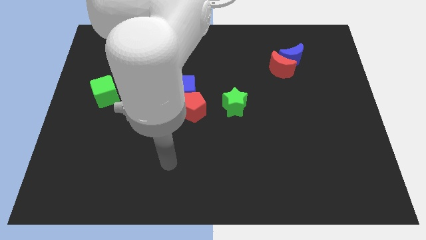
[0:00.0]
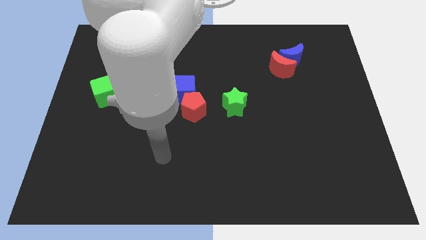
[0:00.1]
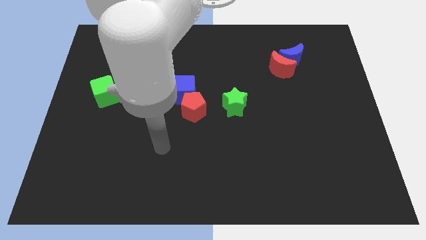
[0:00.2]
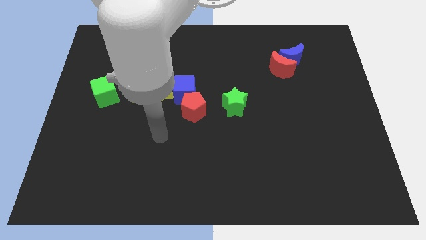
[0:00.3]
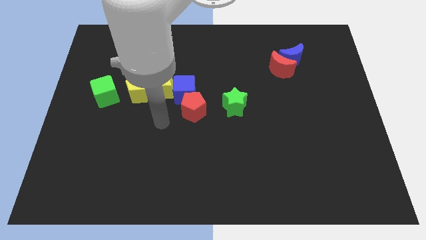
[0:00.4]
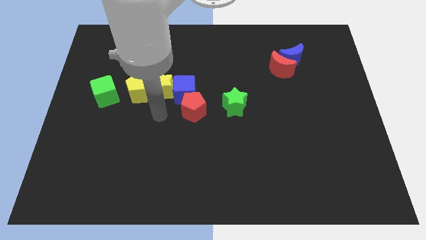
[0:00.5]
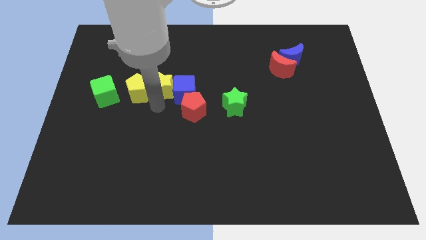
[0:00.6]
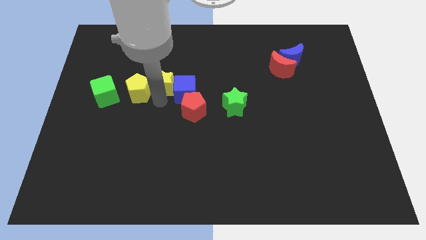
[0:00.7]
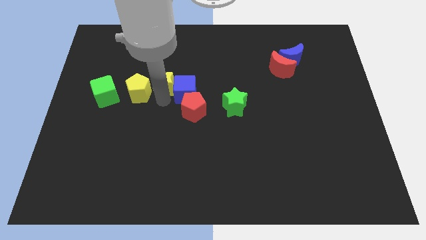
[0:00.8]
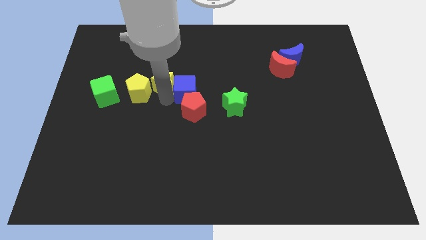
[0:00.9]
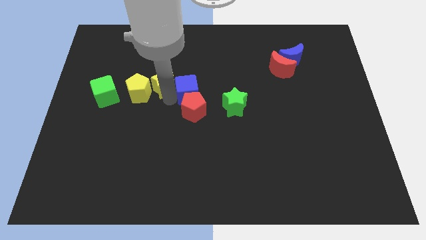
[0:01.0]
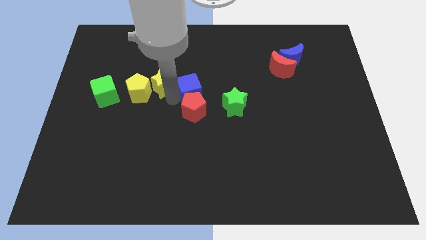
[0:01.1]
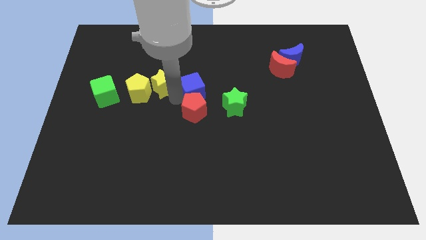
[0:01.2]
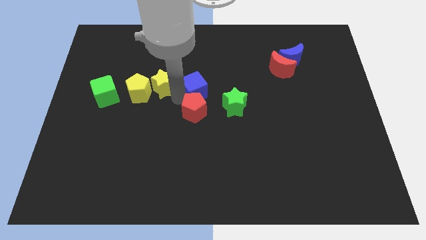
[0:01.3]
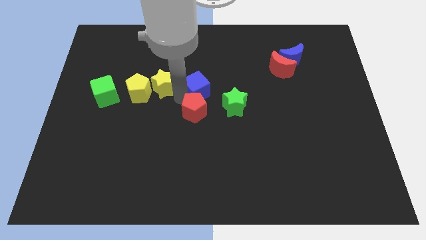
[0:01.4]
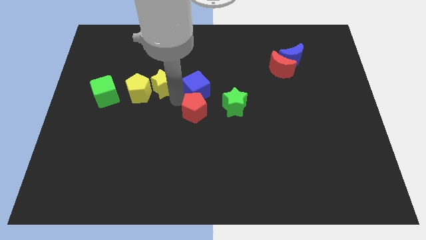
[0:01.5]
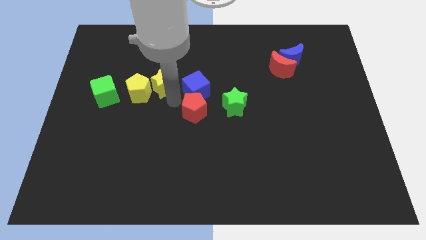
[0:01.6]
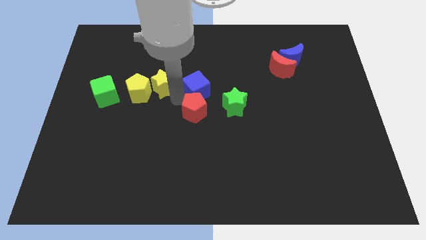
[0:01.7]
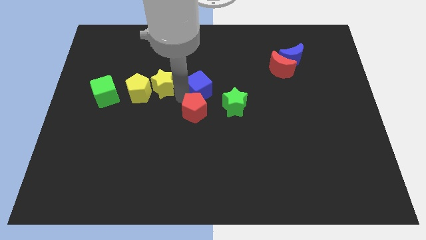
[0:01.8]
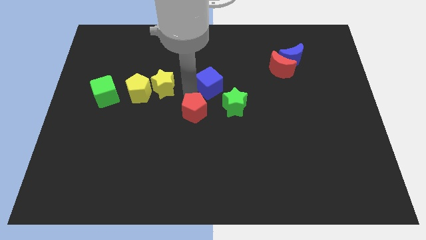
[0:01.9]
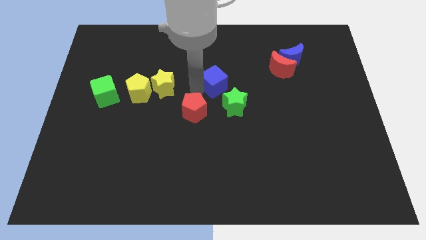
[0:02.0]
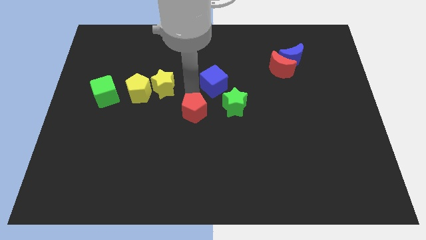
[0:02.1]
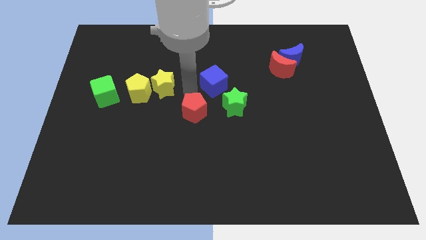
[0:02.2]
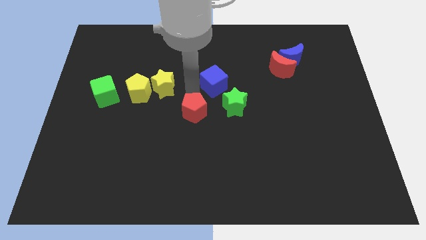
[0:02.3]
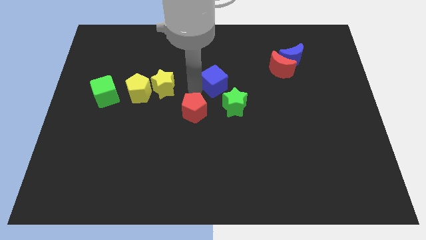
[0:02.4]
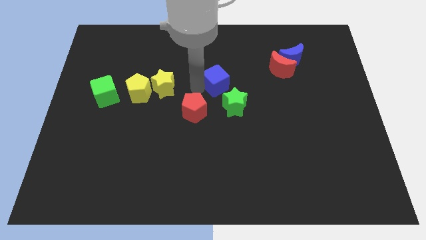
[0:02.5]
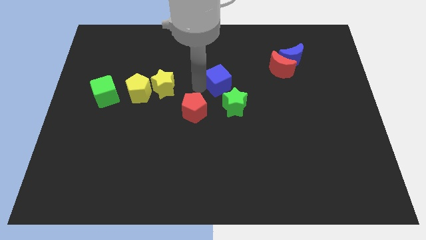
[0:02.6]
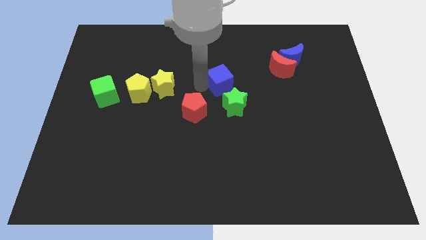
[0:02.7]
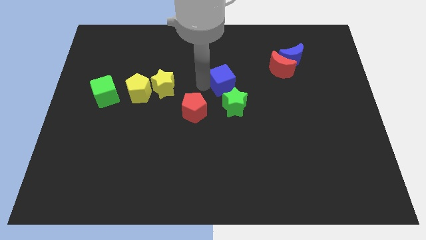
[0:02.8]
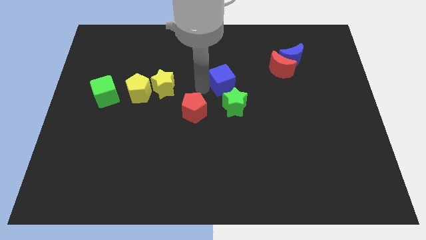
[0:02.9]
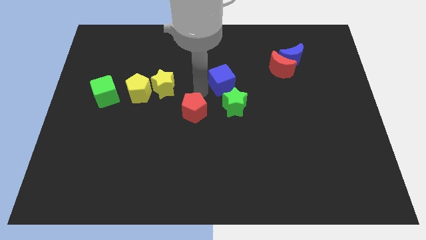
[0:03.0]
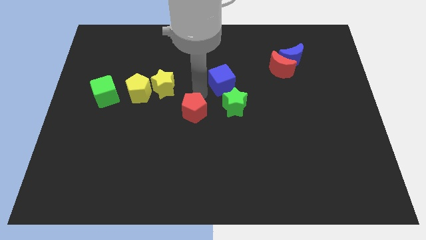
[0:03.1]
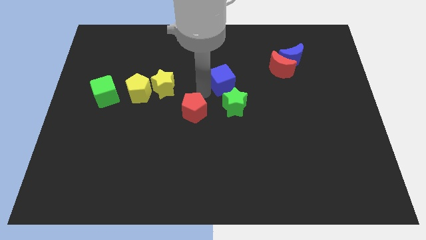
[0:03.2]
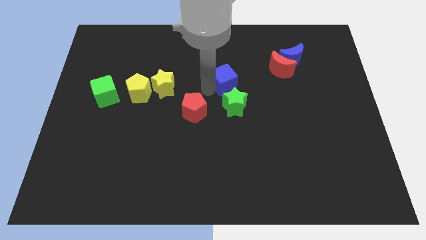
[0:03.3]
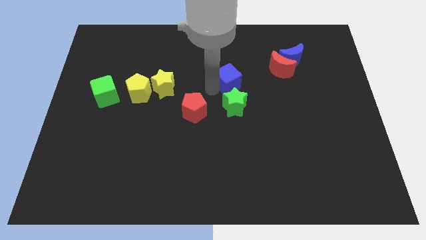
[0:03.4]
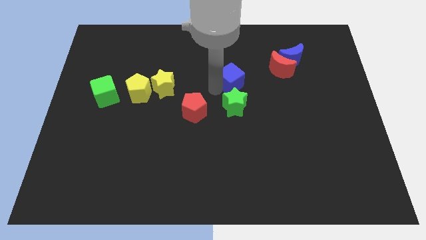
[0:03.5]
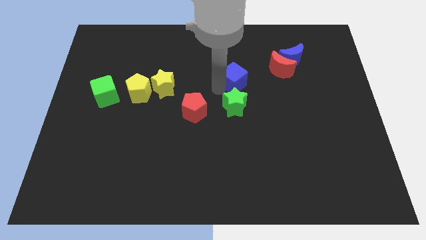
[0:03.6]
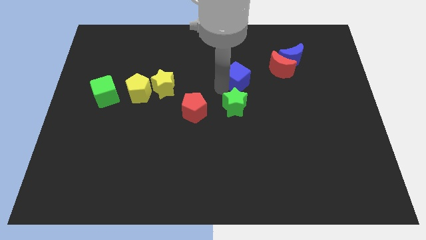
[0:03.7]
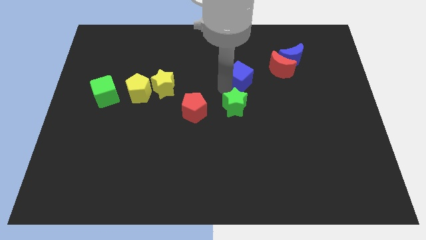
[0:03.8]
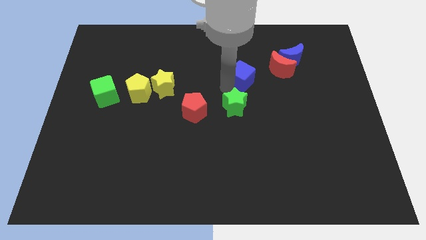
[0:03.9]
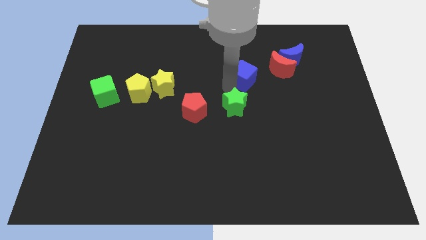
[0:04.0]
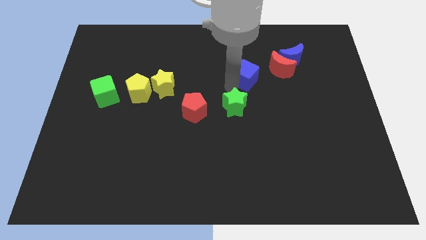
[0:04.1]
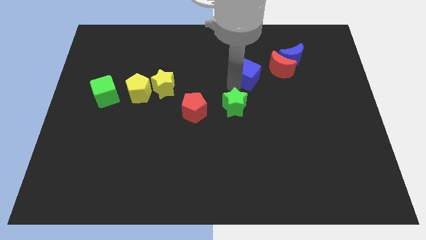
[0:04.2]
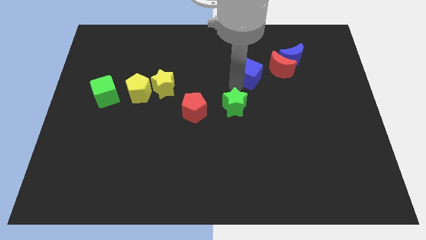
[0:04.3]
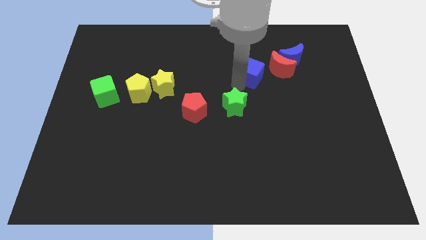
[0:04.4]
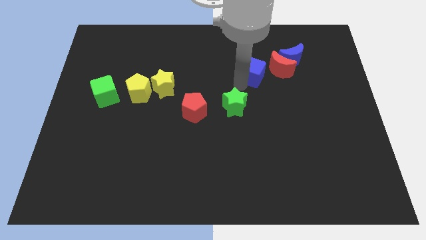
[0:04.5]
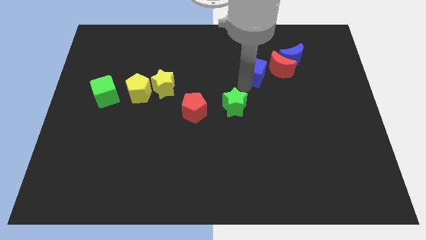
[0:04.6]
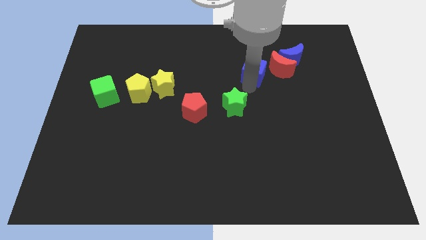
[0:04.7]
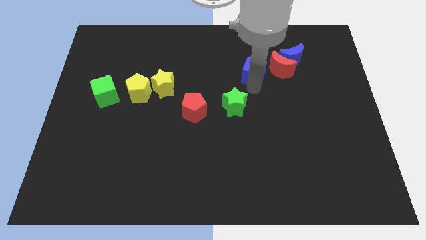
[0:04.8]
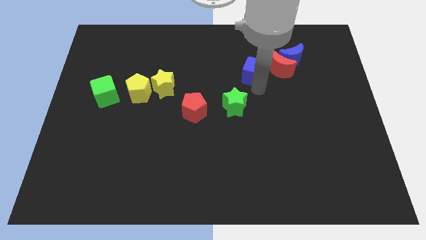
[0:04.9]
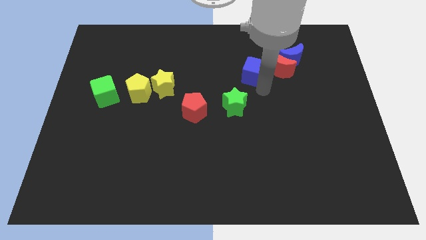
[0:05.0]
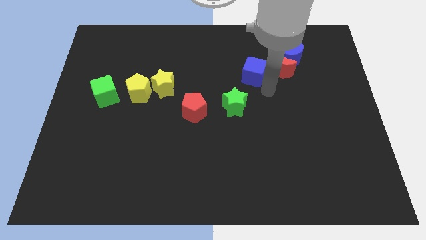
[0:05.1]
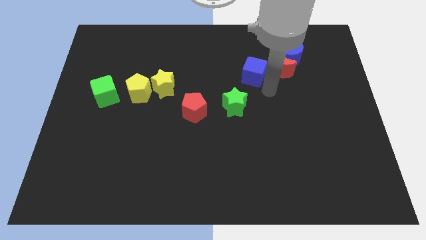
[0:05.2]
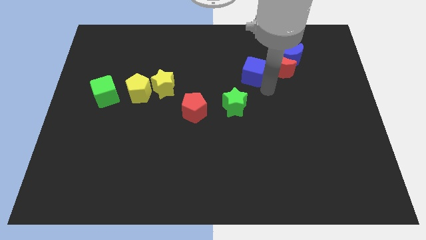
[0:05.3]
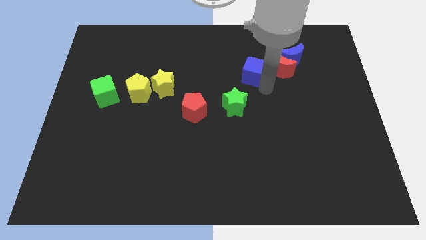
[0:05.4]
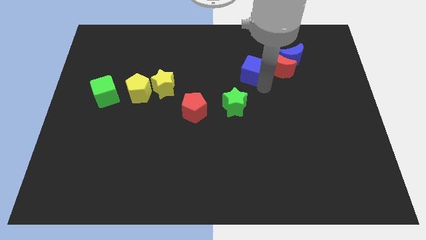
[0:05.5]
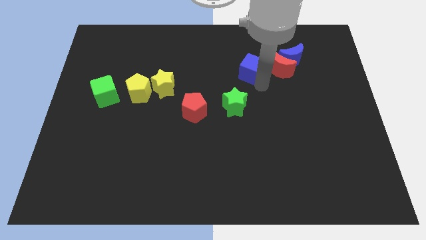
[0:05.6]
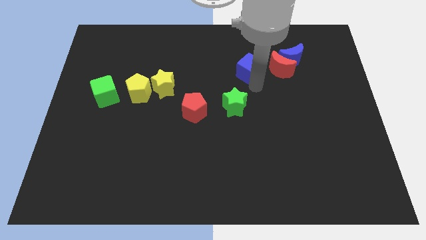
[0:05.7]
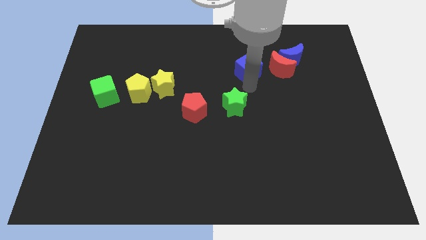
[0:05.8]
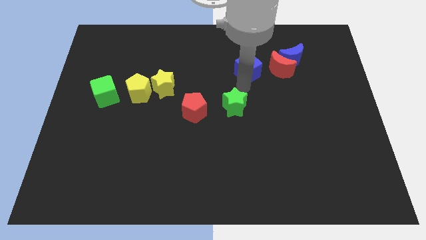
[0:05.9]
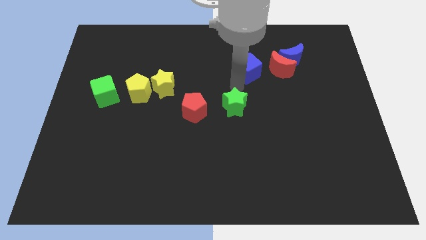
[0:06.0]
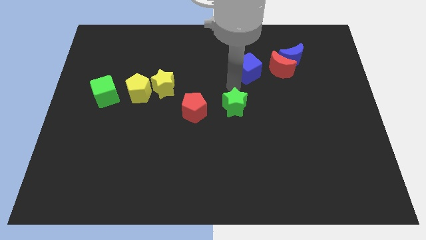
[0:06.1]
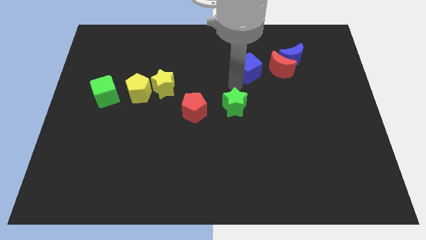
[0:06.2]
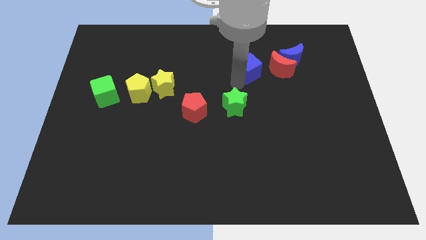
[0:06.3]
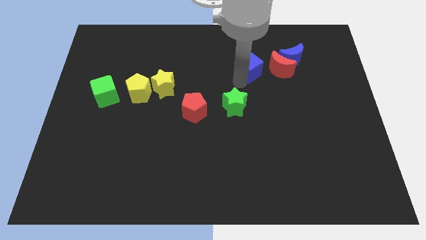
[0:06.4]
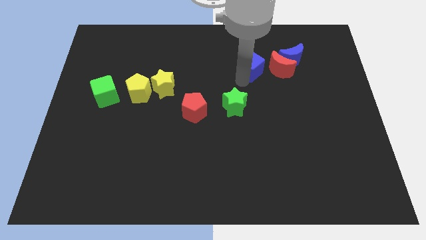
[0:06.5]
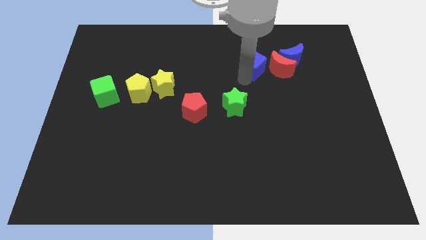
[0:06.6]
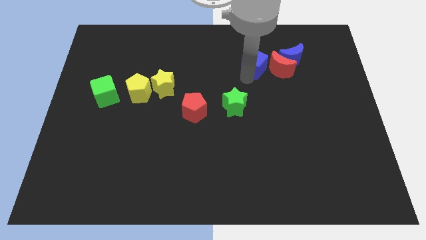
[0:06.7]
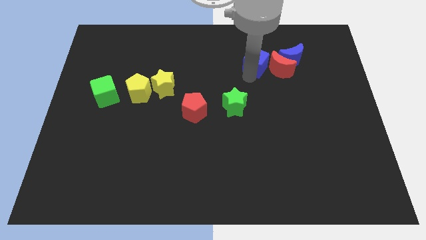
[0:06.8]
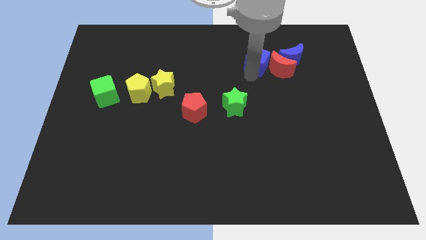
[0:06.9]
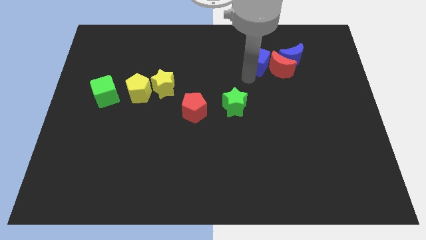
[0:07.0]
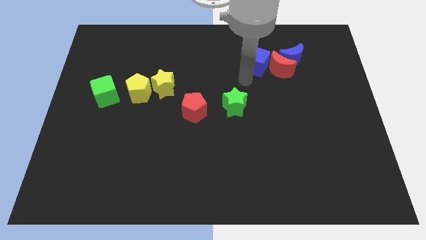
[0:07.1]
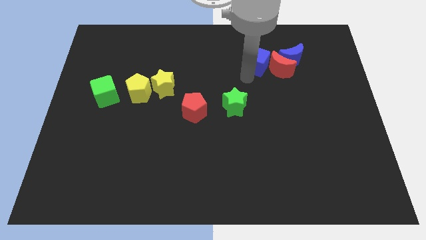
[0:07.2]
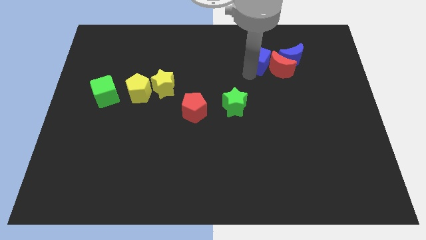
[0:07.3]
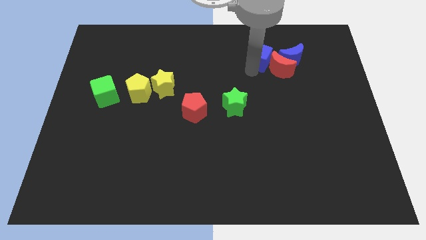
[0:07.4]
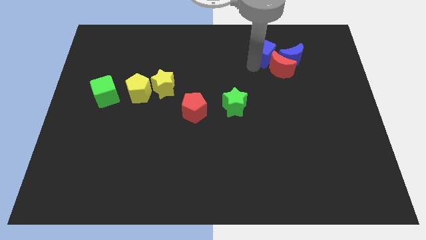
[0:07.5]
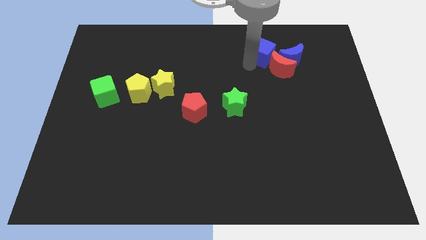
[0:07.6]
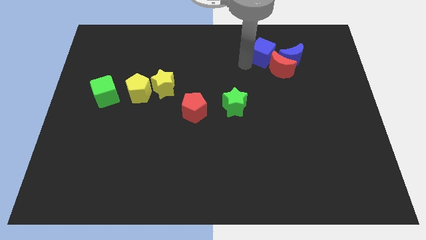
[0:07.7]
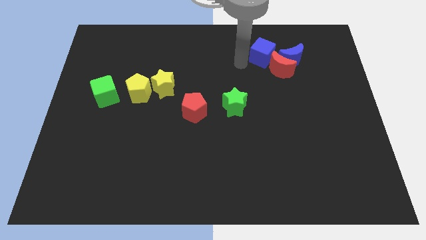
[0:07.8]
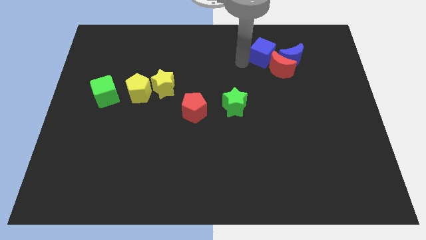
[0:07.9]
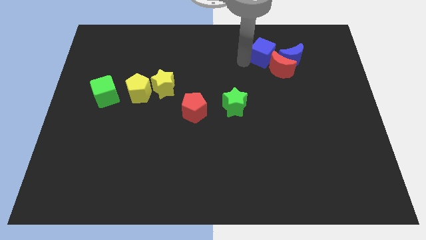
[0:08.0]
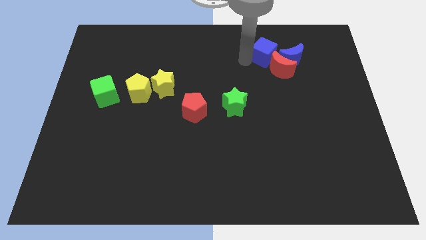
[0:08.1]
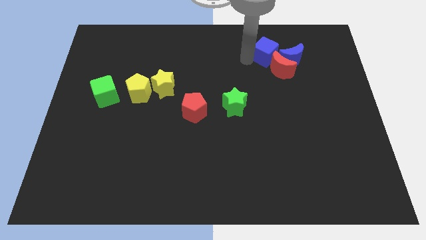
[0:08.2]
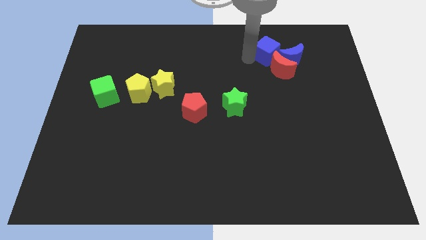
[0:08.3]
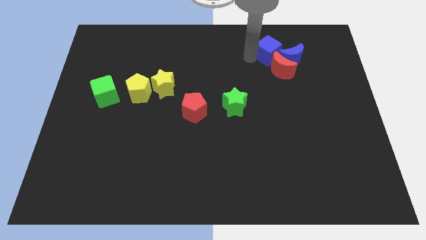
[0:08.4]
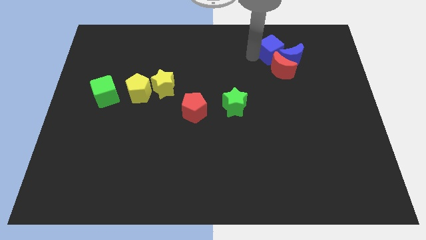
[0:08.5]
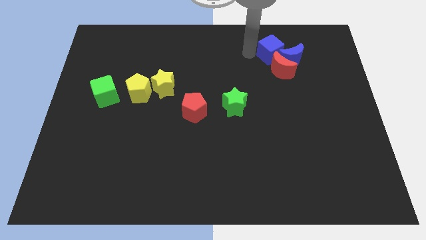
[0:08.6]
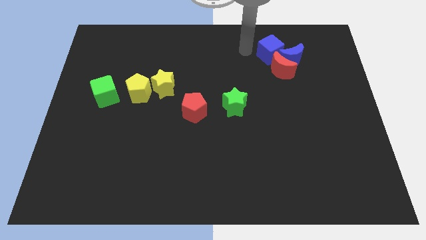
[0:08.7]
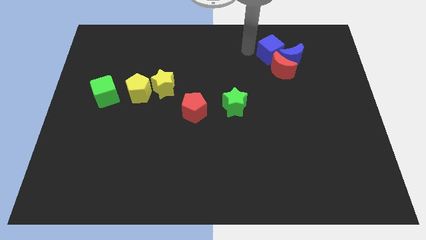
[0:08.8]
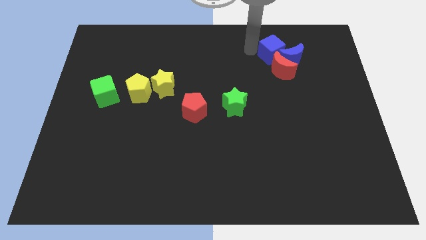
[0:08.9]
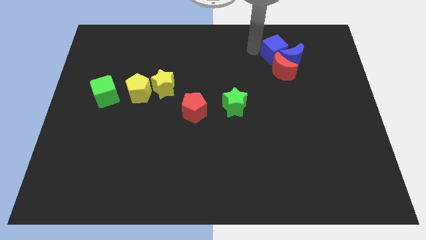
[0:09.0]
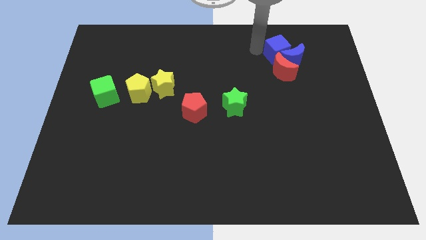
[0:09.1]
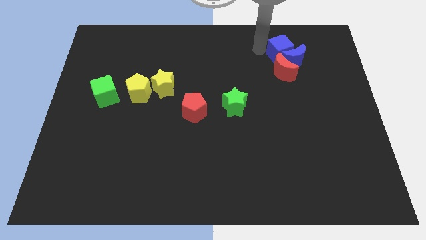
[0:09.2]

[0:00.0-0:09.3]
push the blue cube to the top right side of the red moon
